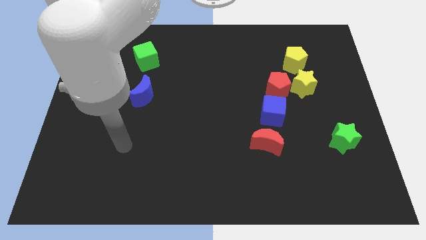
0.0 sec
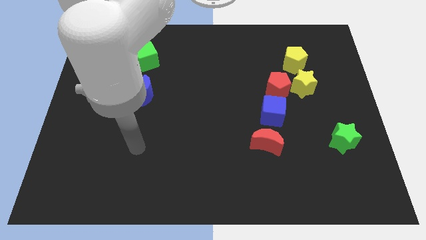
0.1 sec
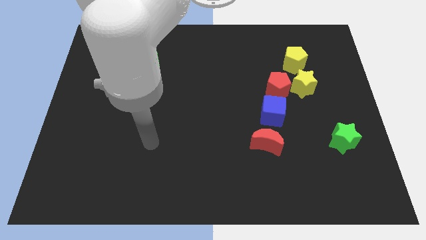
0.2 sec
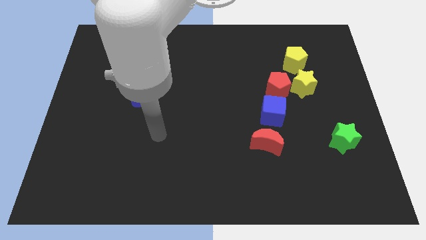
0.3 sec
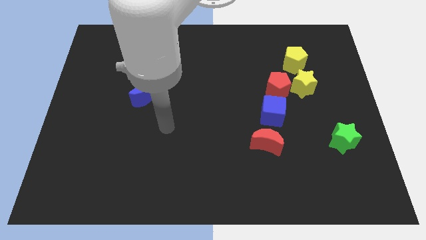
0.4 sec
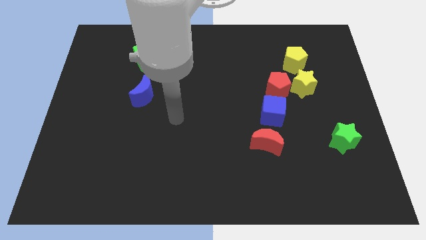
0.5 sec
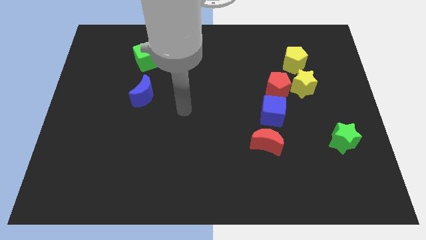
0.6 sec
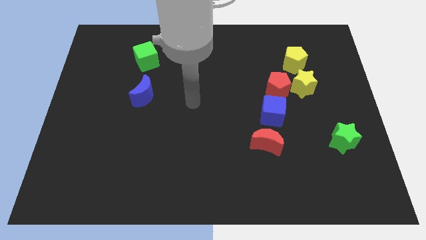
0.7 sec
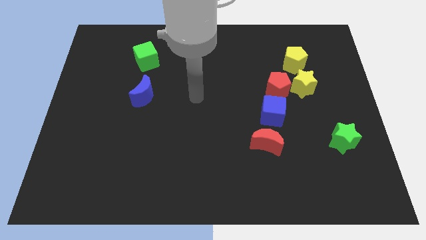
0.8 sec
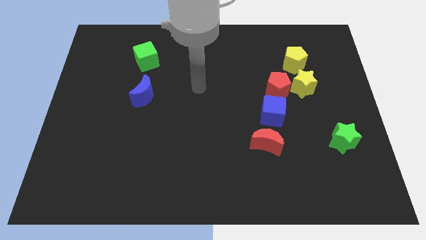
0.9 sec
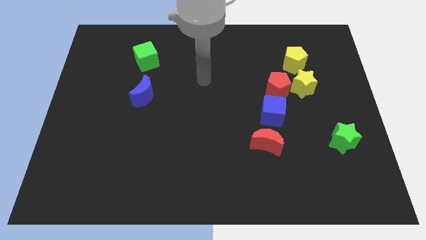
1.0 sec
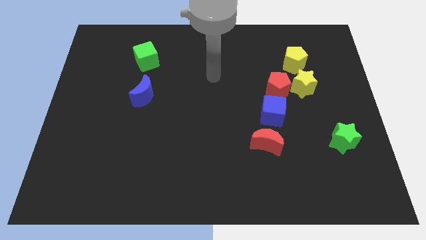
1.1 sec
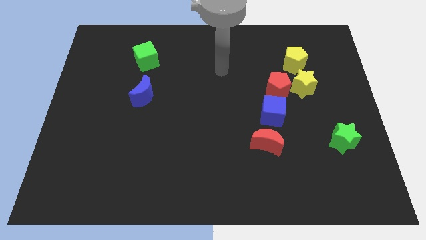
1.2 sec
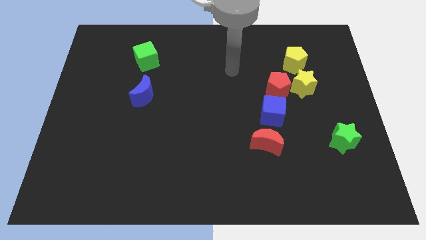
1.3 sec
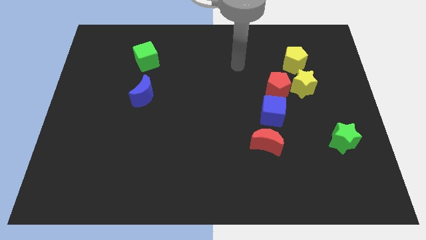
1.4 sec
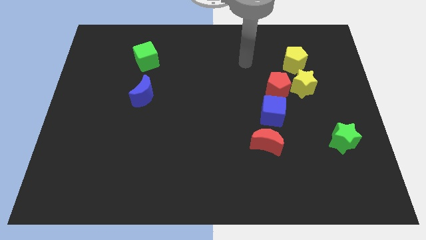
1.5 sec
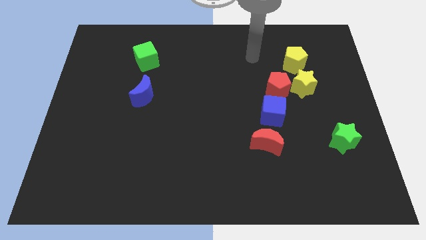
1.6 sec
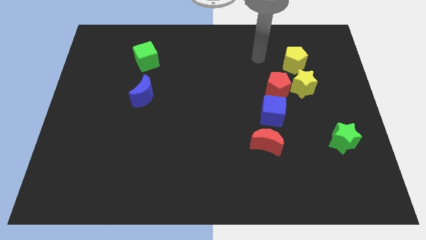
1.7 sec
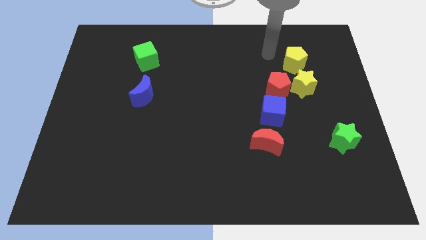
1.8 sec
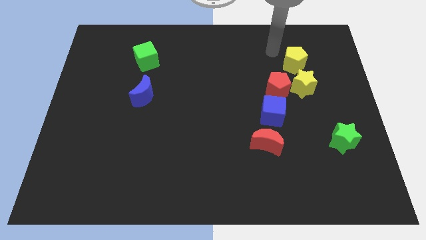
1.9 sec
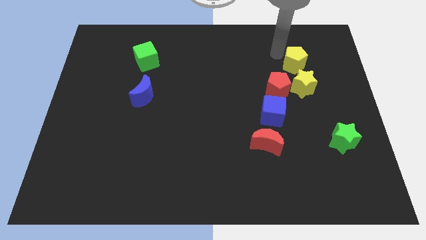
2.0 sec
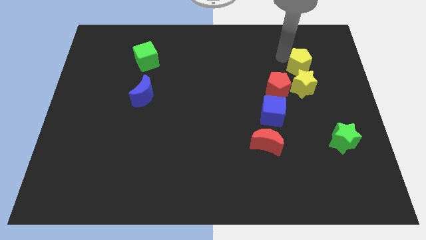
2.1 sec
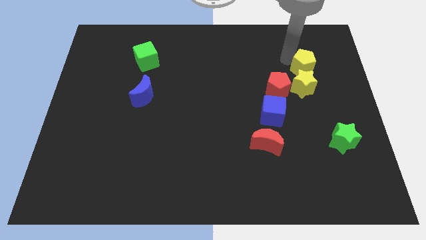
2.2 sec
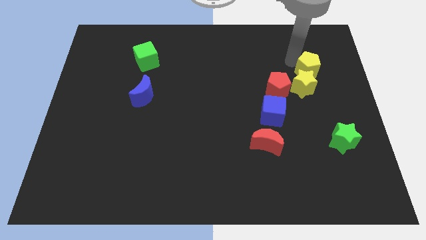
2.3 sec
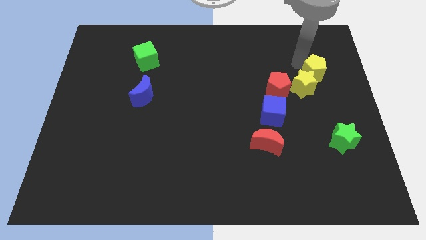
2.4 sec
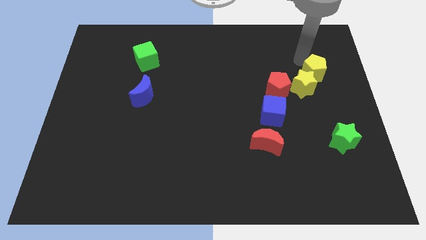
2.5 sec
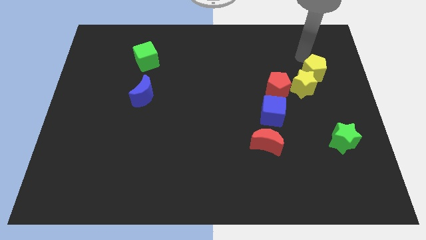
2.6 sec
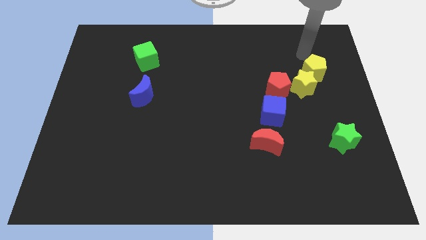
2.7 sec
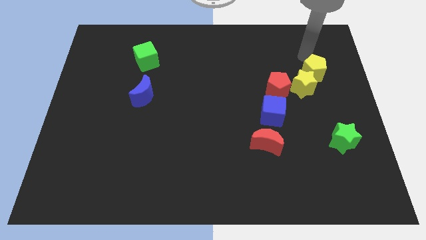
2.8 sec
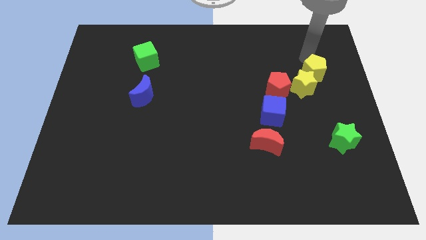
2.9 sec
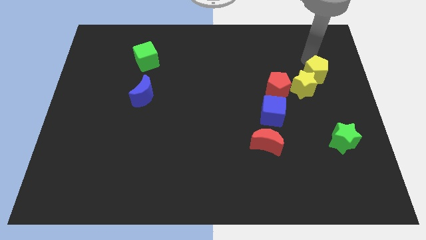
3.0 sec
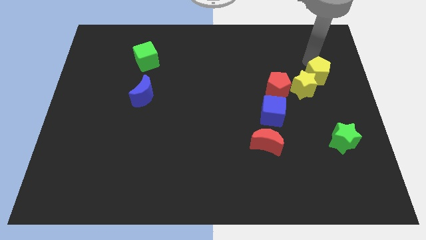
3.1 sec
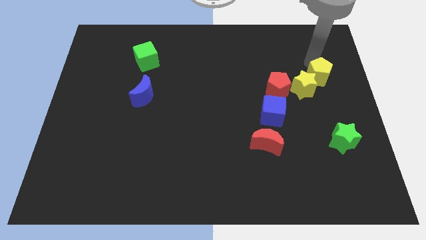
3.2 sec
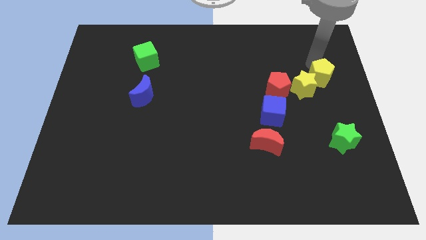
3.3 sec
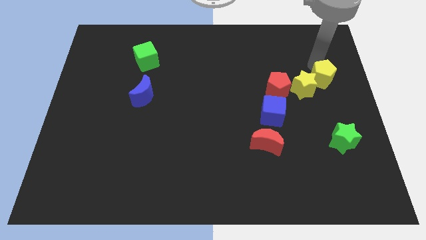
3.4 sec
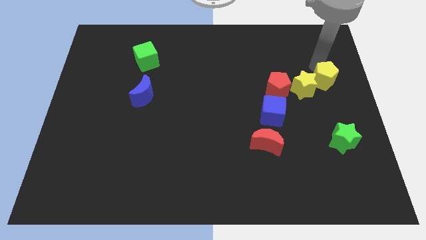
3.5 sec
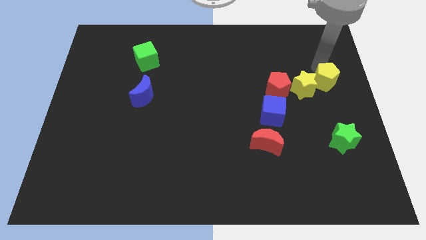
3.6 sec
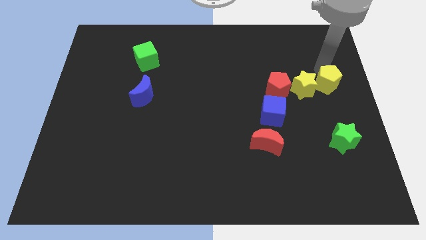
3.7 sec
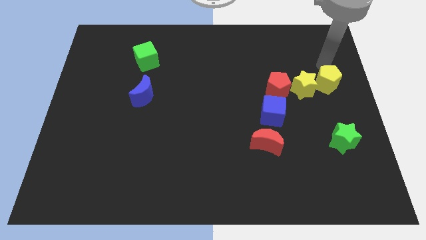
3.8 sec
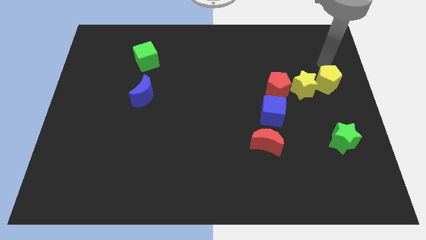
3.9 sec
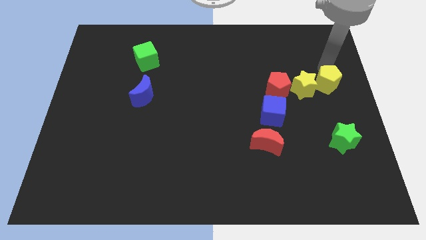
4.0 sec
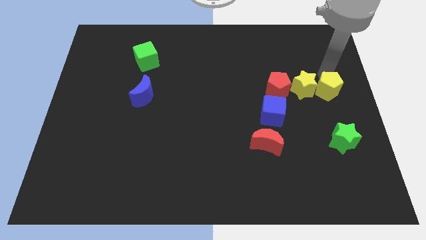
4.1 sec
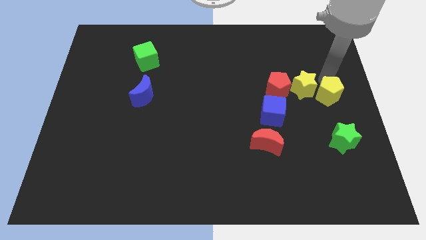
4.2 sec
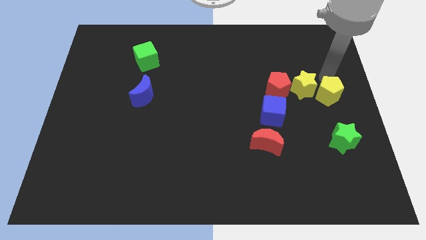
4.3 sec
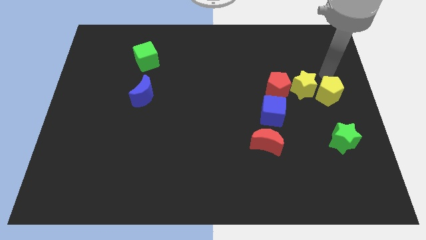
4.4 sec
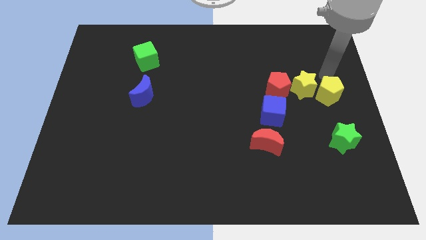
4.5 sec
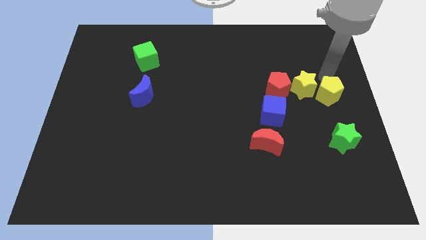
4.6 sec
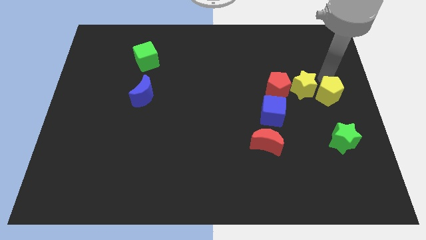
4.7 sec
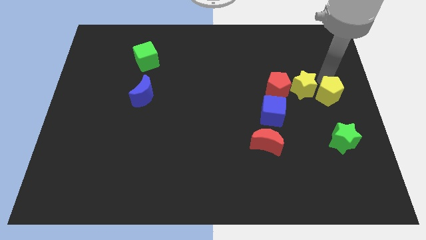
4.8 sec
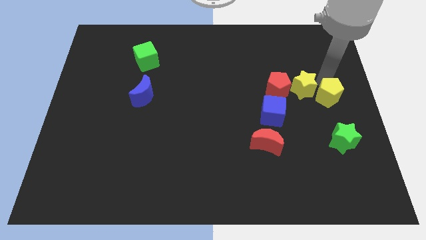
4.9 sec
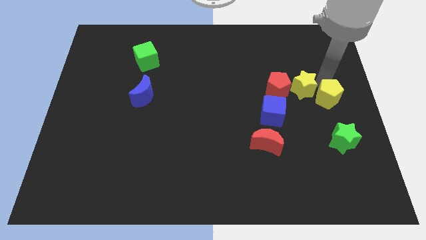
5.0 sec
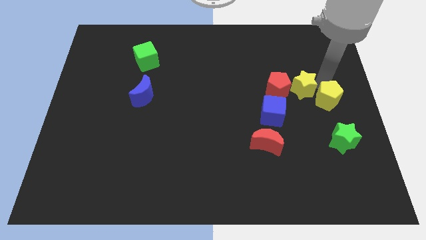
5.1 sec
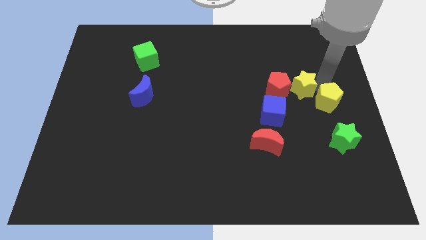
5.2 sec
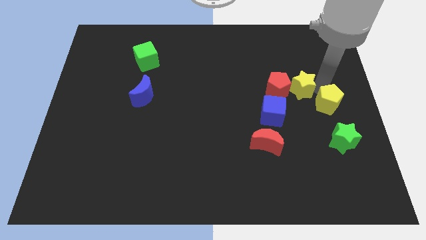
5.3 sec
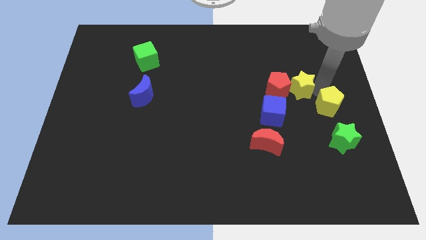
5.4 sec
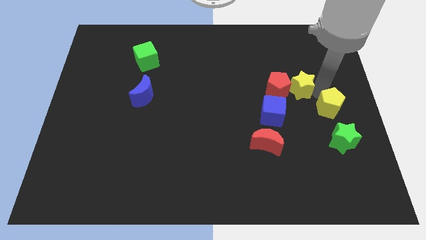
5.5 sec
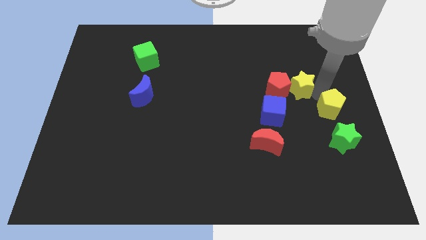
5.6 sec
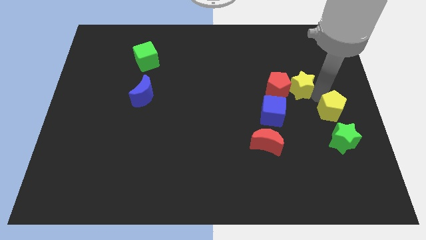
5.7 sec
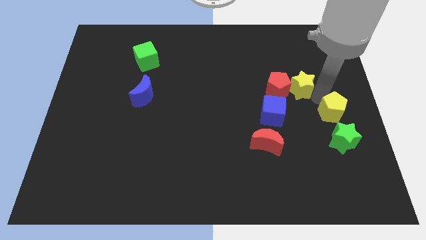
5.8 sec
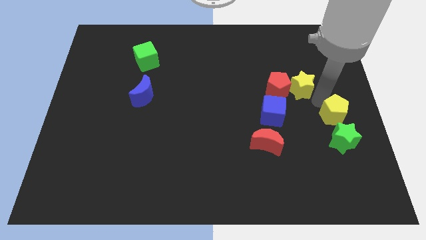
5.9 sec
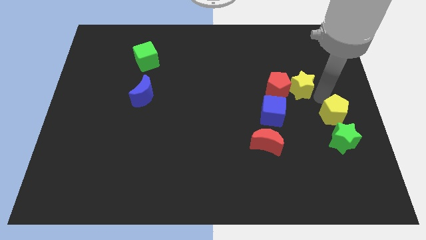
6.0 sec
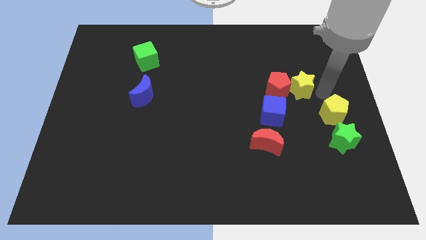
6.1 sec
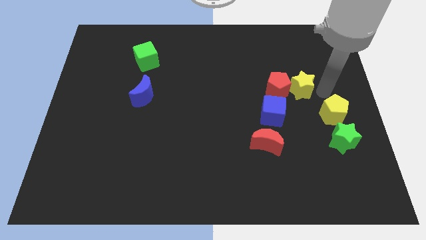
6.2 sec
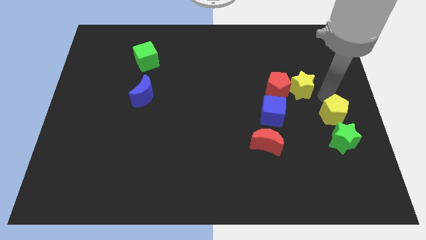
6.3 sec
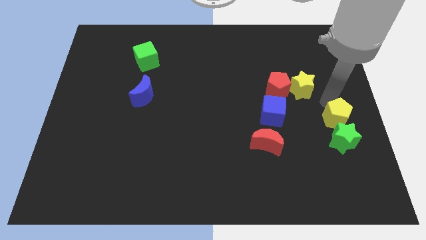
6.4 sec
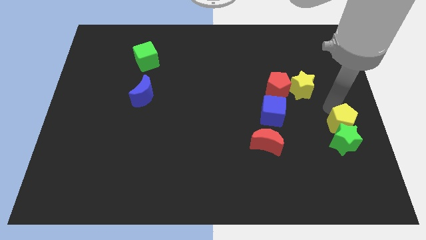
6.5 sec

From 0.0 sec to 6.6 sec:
put the yellow pentagon next to the green star
